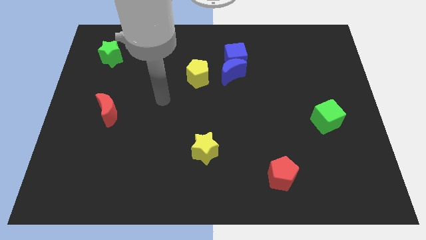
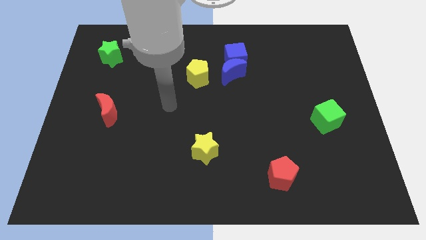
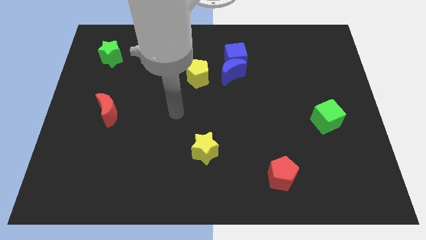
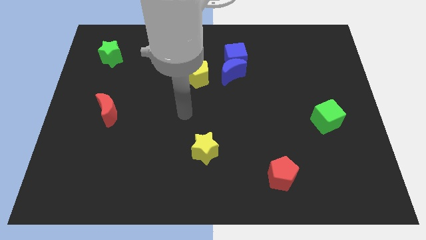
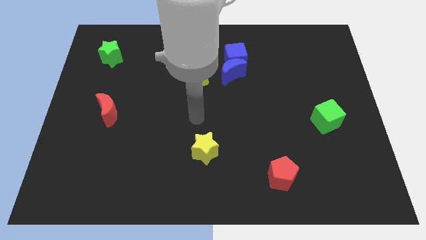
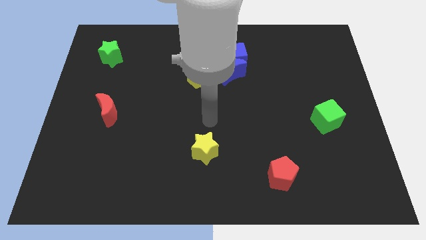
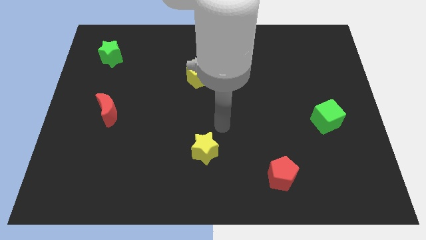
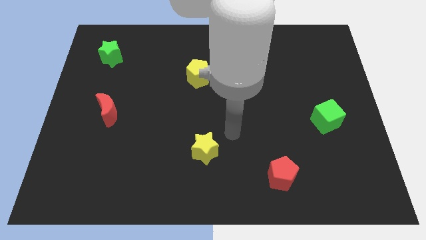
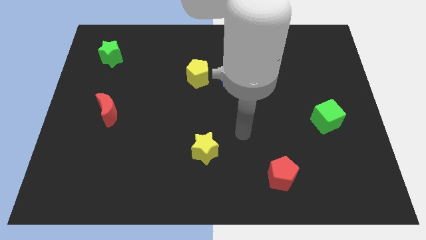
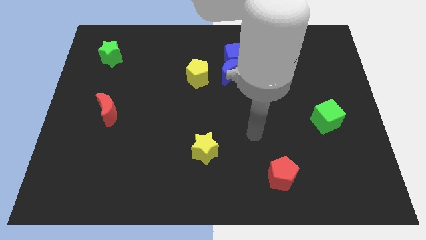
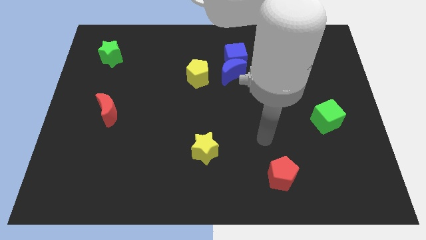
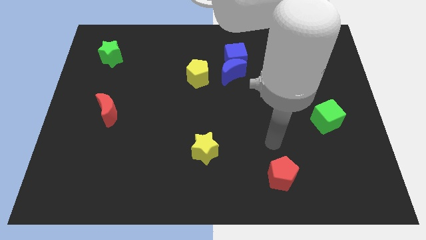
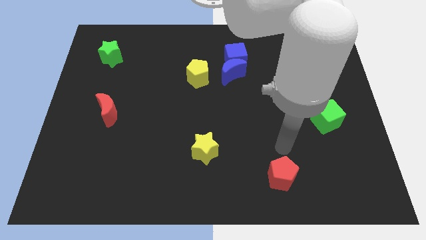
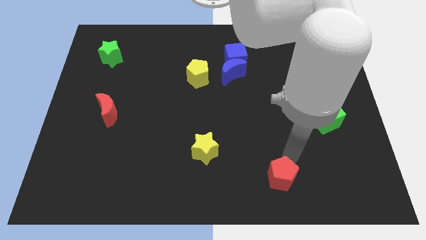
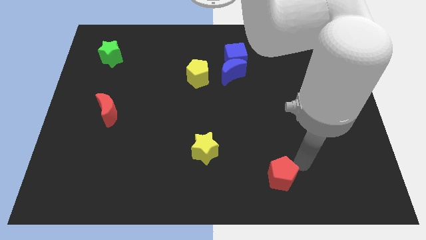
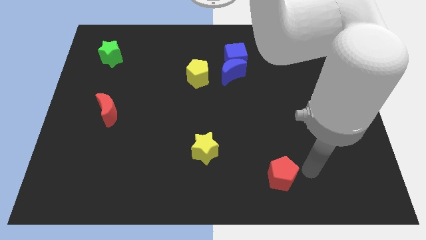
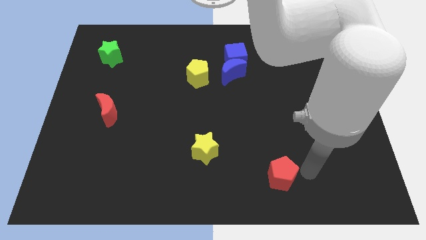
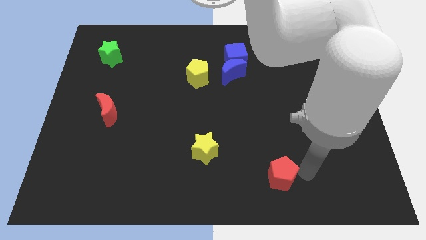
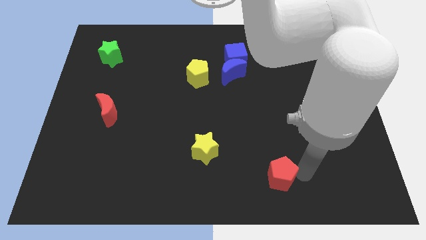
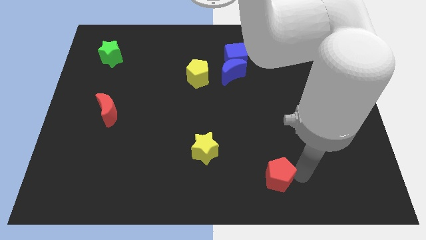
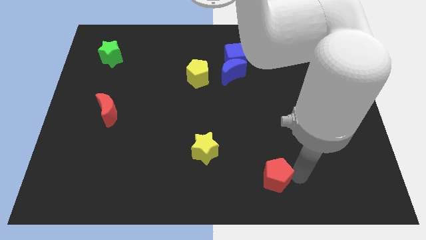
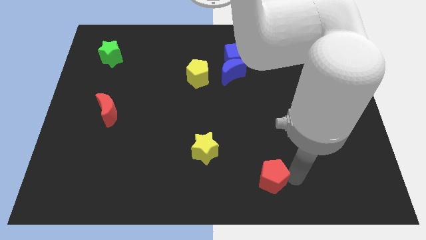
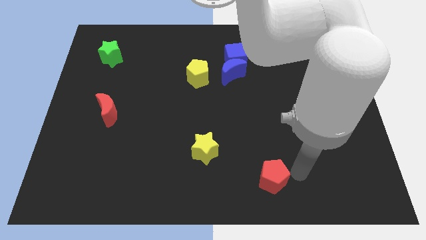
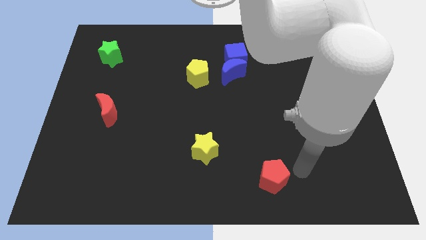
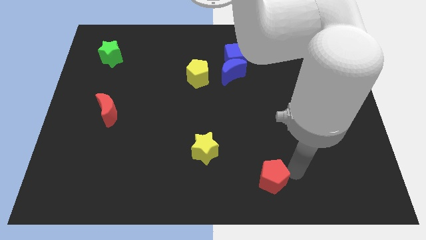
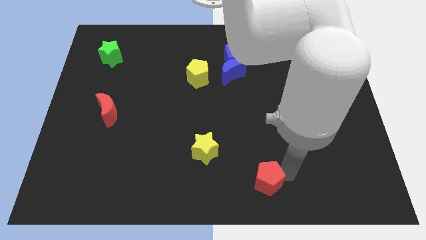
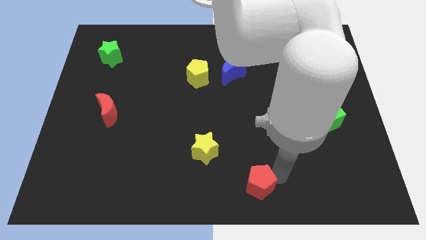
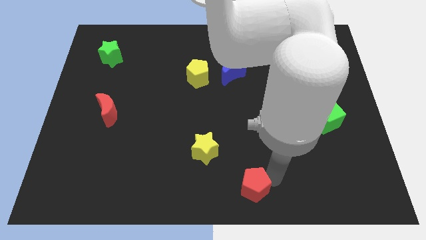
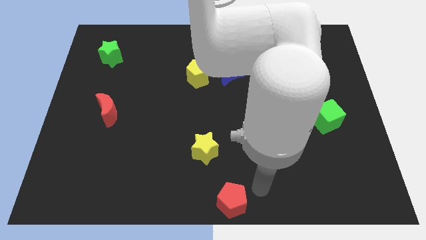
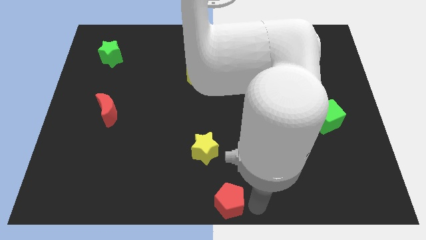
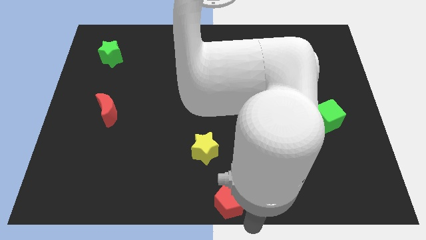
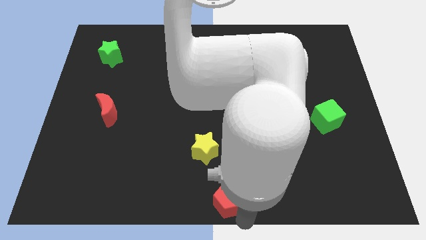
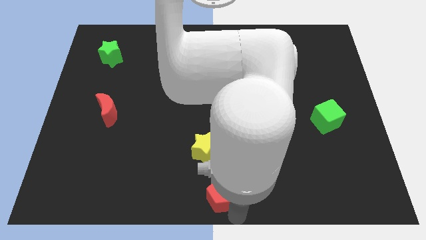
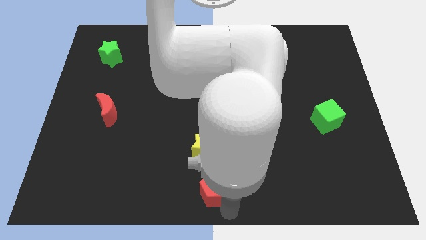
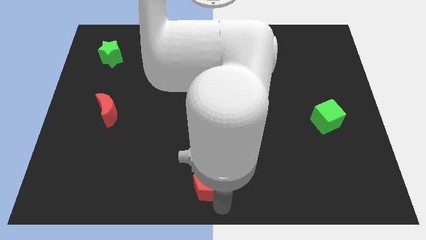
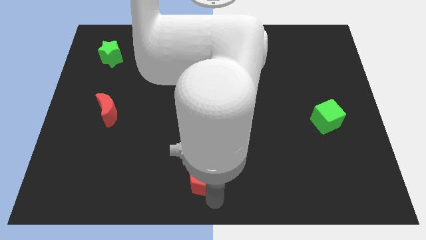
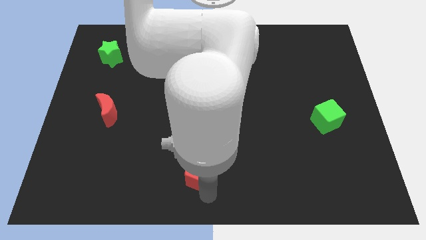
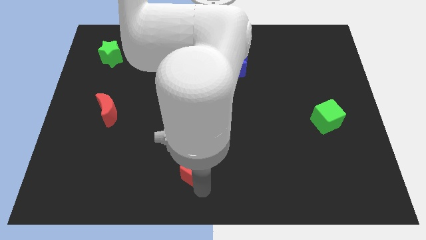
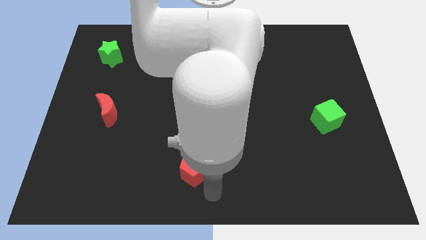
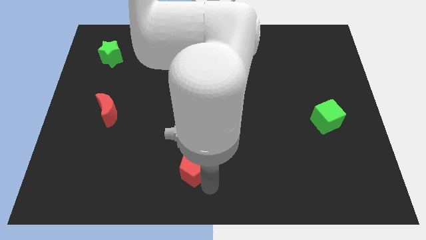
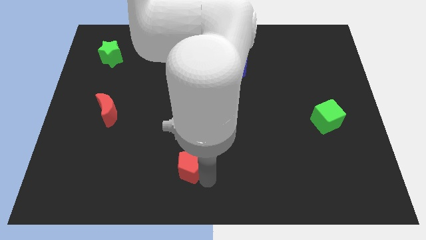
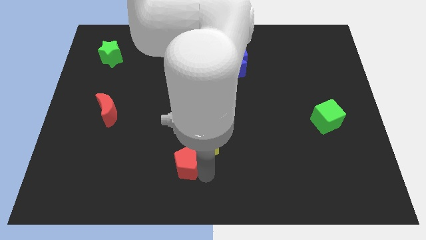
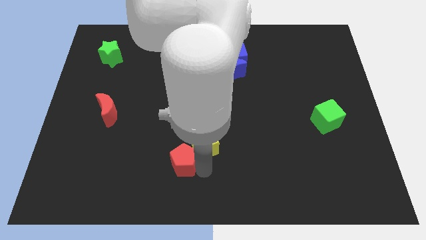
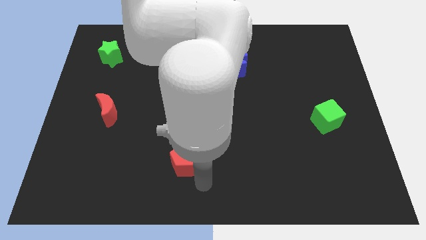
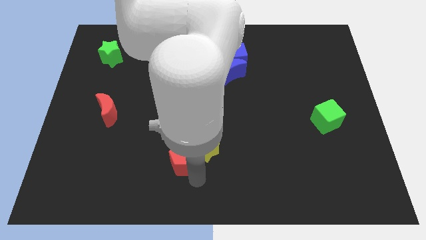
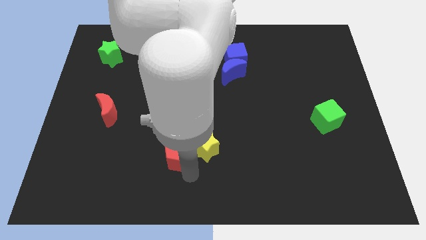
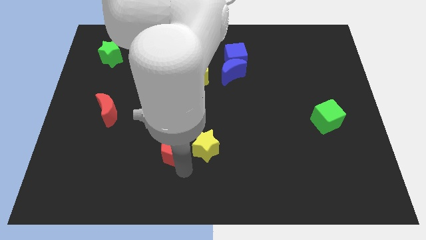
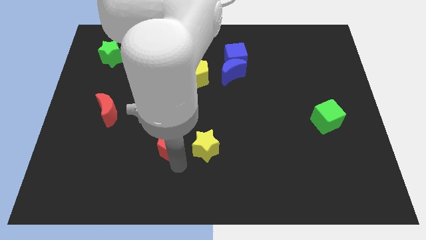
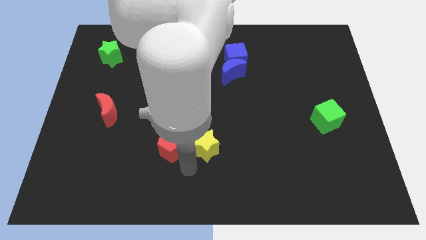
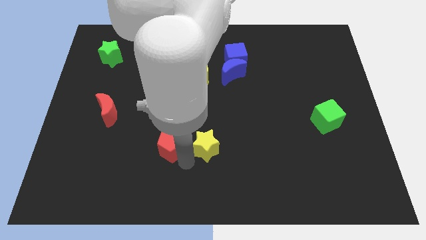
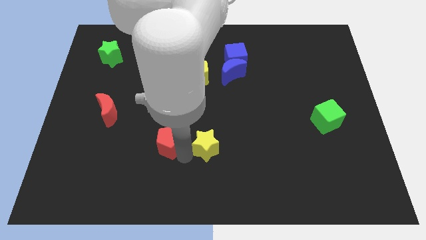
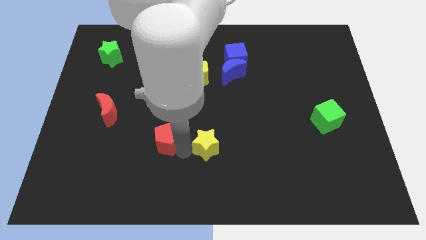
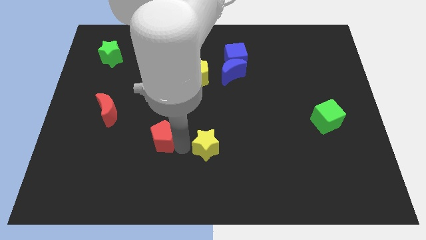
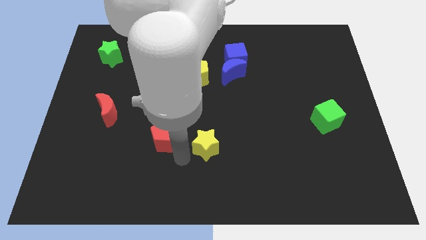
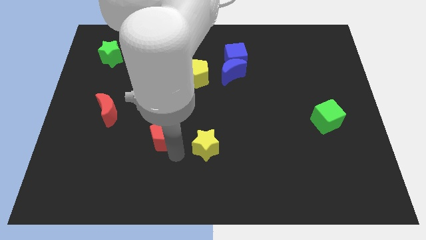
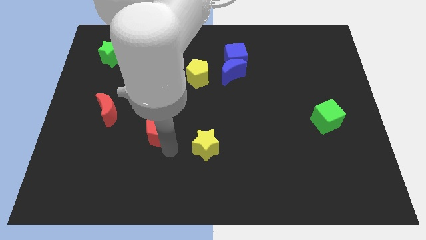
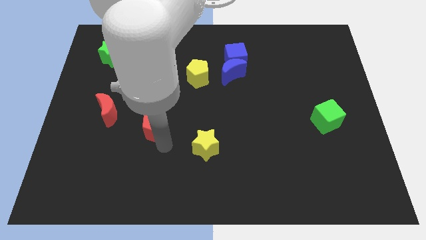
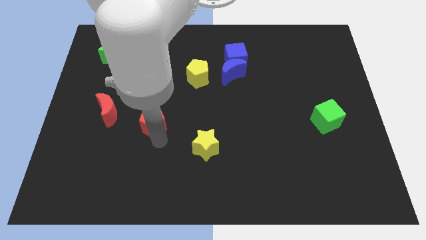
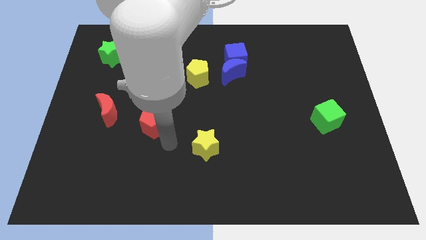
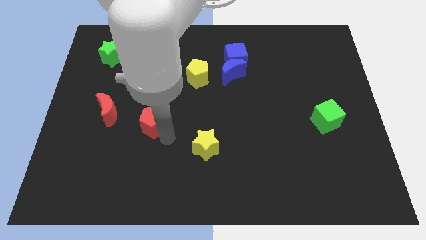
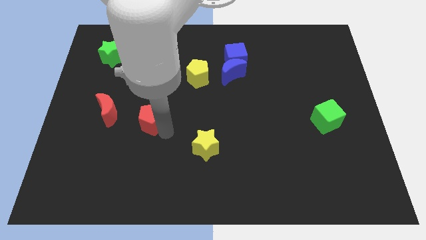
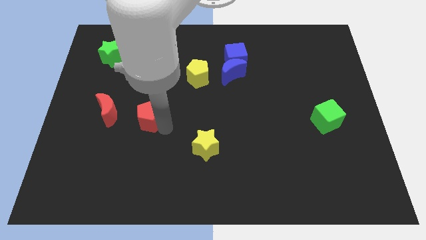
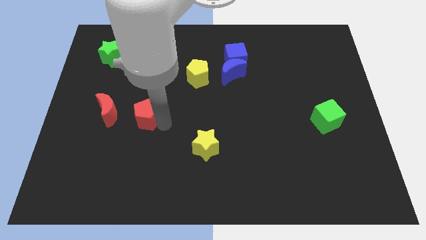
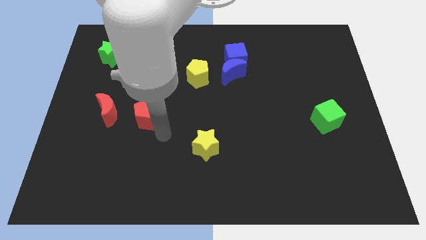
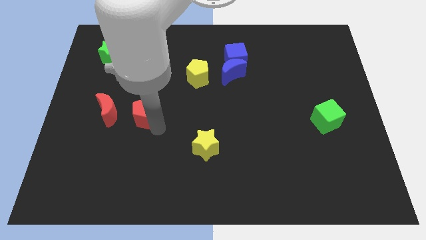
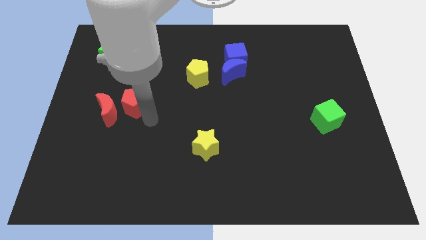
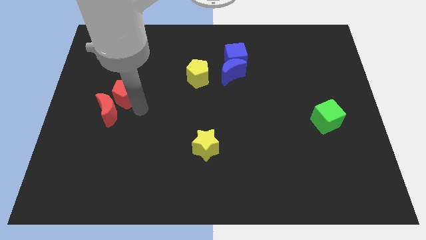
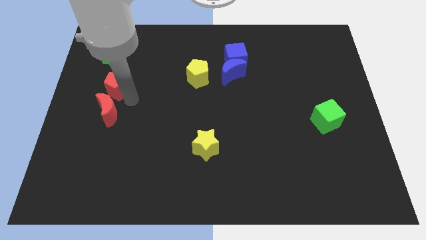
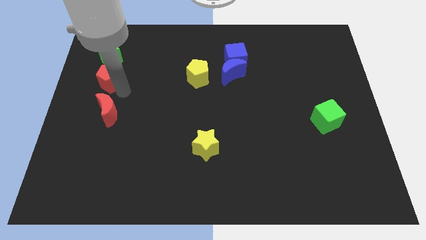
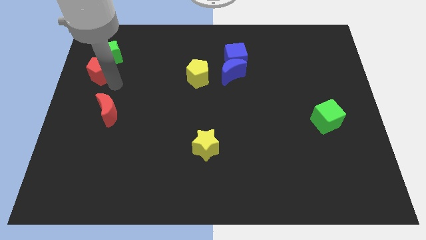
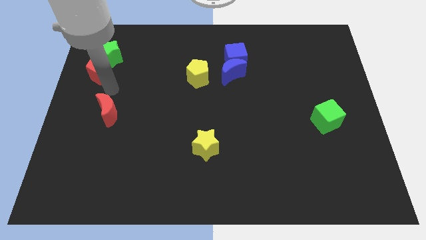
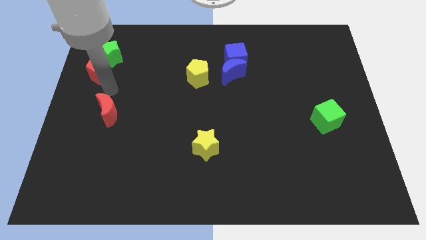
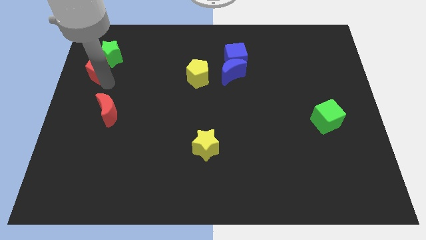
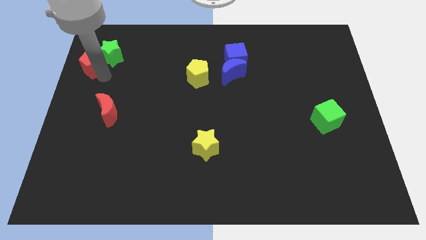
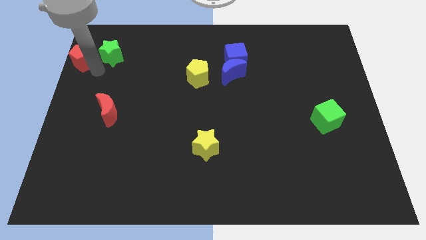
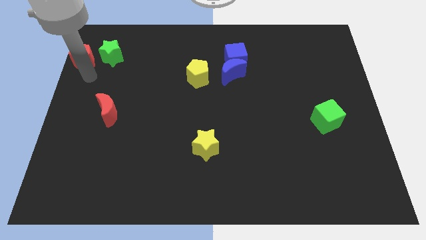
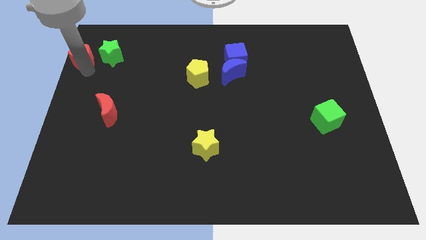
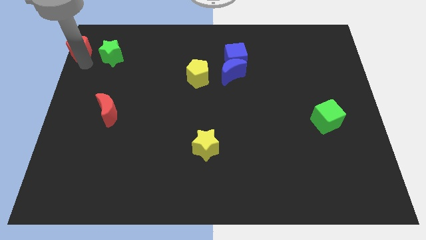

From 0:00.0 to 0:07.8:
put the red pentagon to the top left

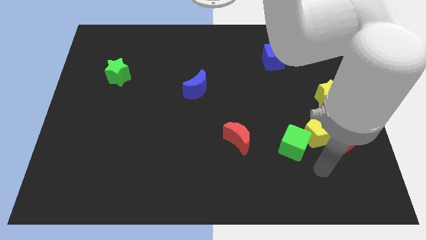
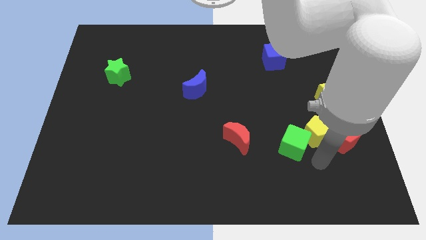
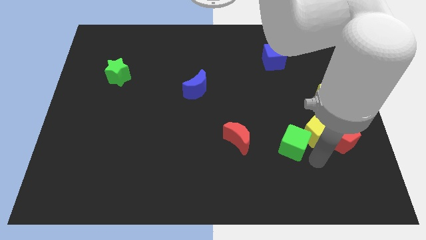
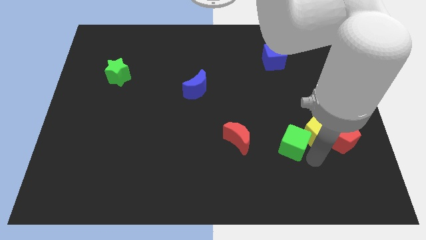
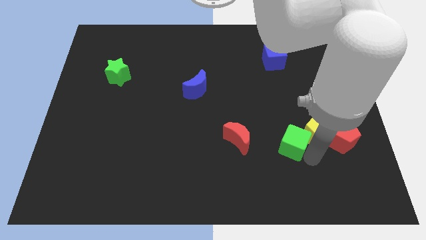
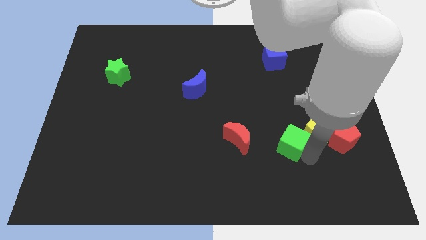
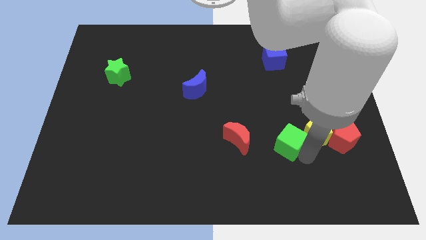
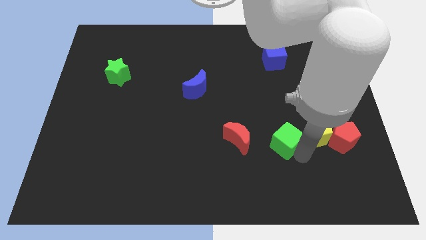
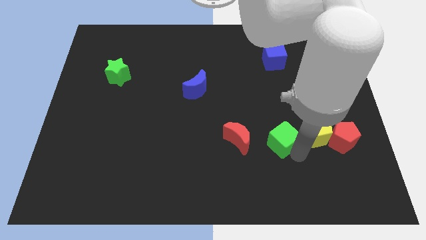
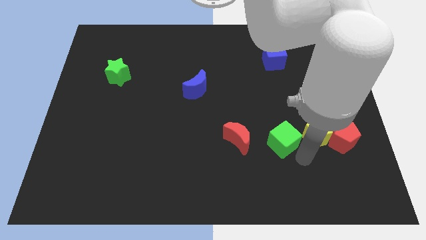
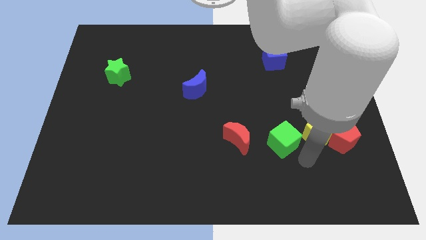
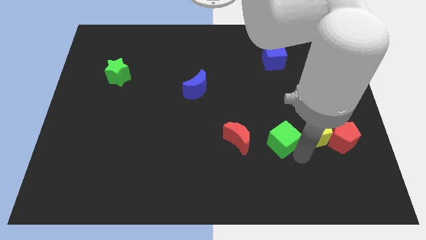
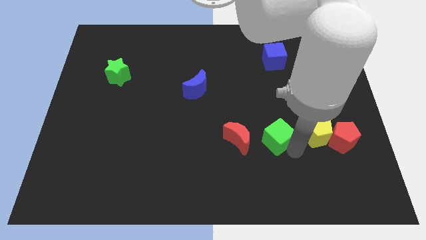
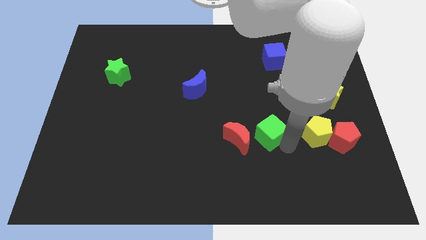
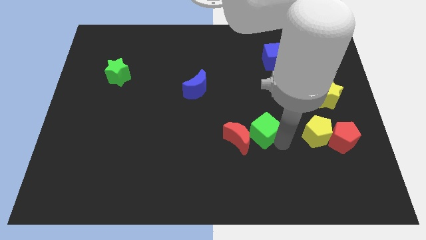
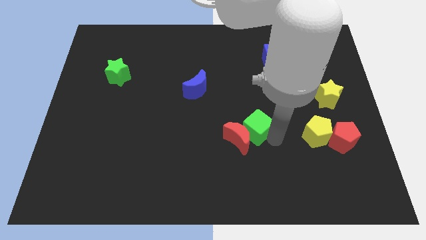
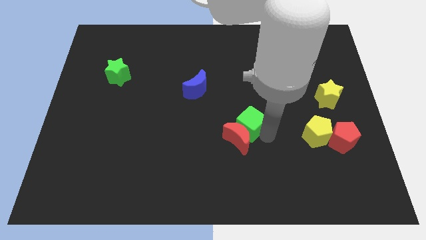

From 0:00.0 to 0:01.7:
put the green cube to the center of the board
